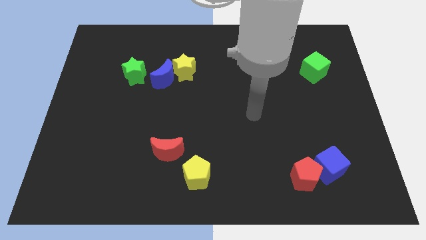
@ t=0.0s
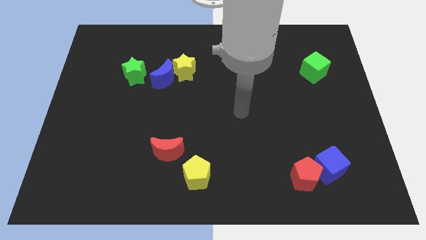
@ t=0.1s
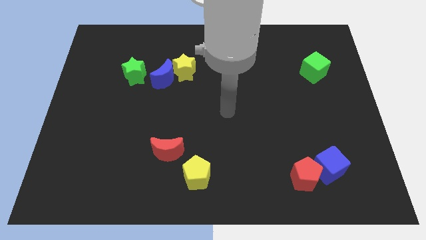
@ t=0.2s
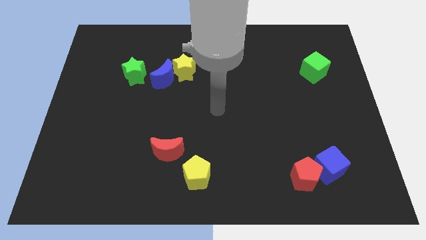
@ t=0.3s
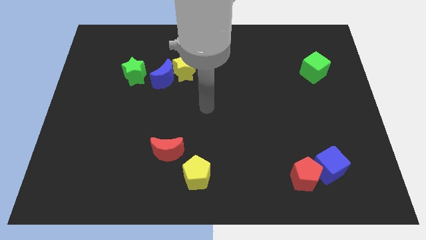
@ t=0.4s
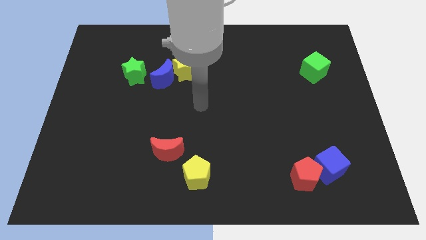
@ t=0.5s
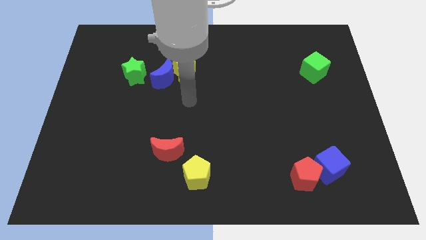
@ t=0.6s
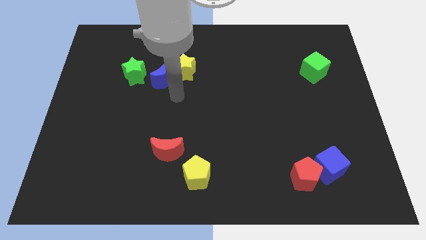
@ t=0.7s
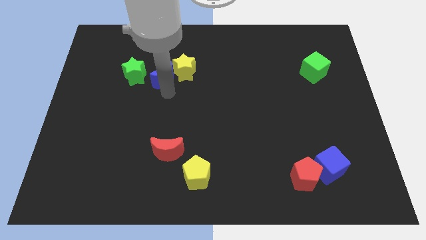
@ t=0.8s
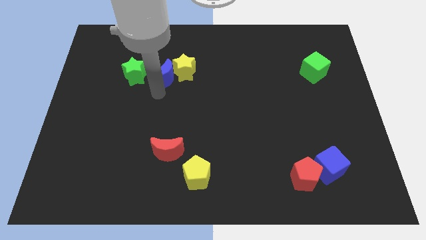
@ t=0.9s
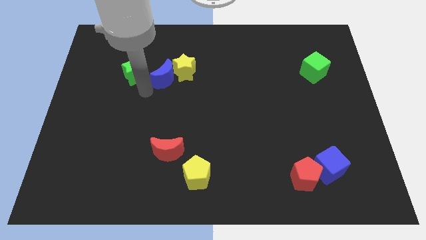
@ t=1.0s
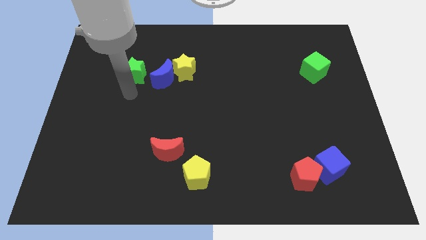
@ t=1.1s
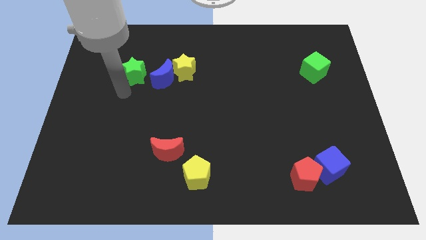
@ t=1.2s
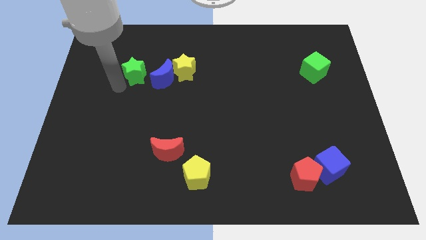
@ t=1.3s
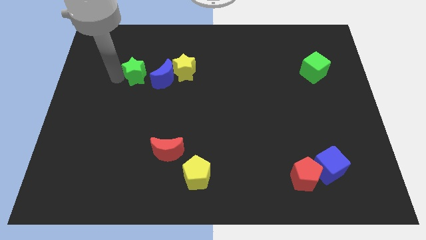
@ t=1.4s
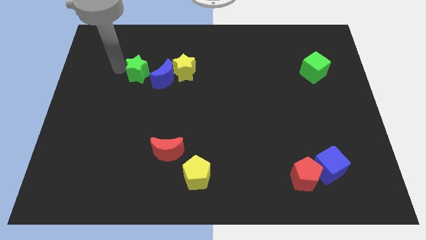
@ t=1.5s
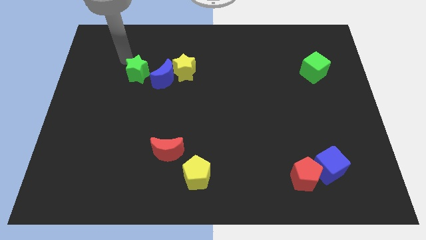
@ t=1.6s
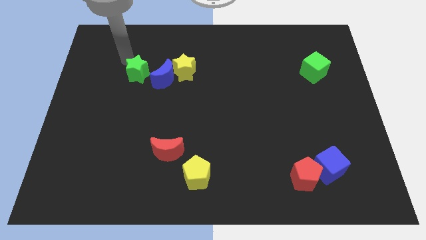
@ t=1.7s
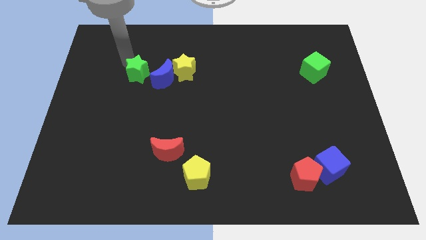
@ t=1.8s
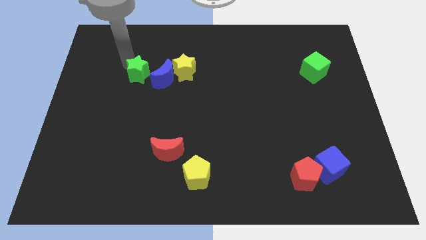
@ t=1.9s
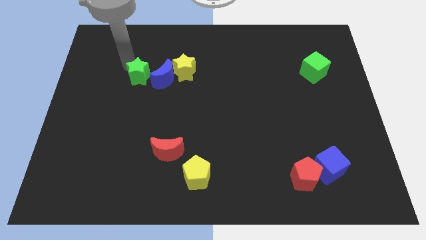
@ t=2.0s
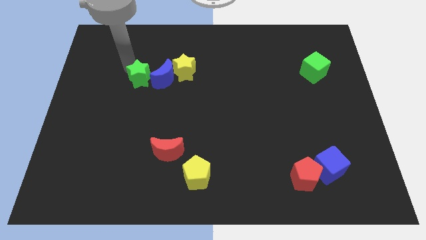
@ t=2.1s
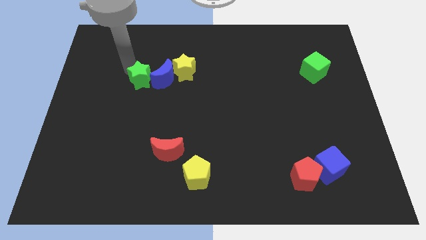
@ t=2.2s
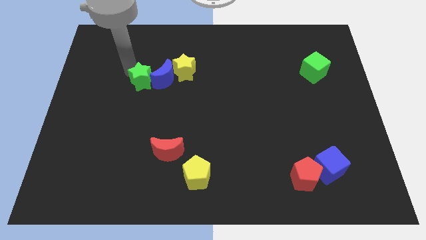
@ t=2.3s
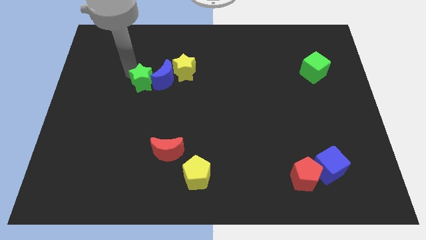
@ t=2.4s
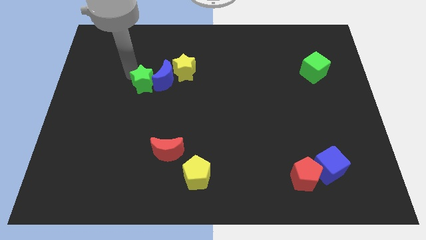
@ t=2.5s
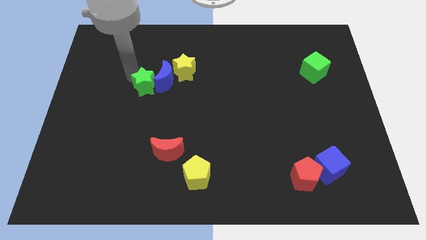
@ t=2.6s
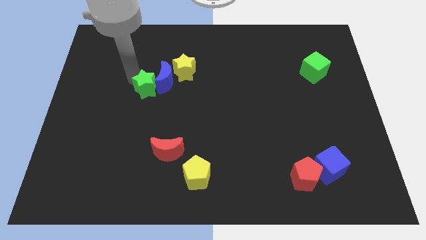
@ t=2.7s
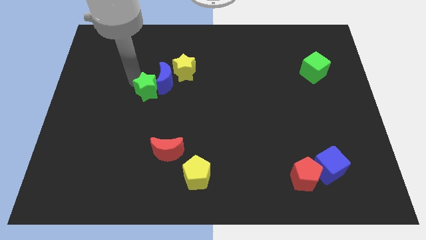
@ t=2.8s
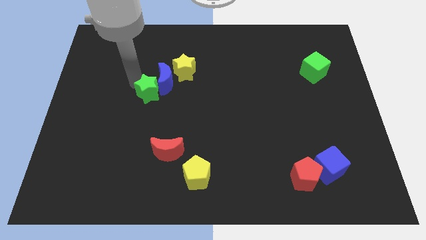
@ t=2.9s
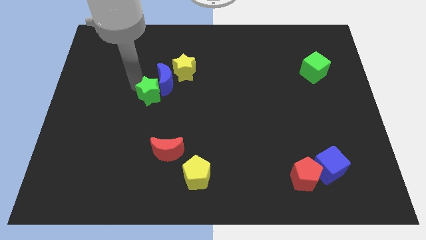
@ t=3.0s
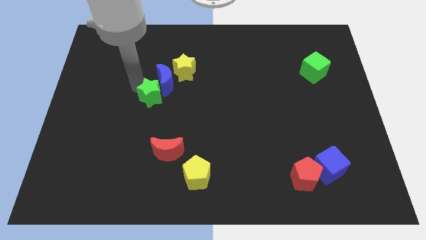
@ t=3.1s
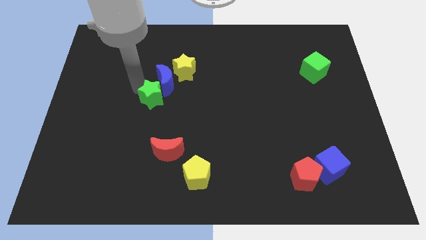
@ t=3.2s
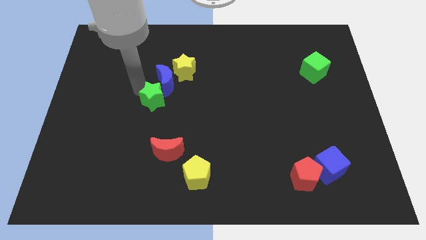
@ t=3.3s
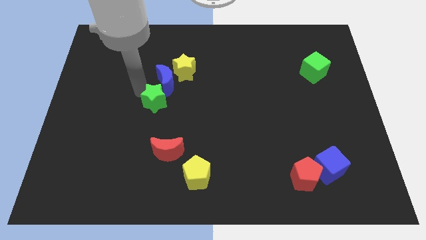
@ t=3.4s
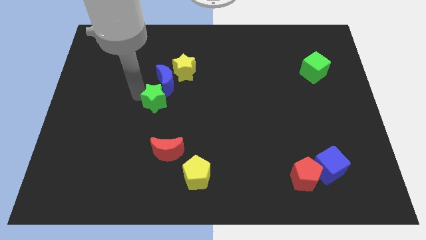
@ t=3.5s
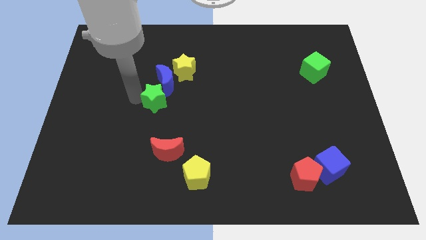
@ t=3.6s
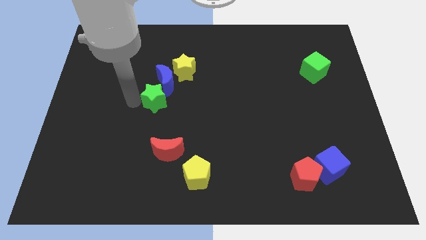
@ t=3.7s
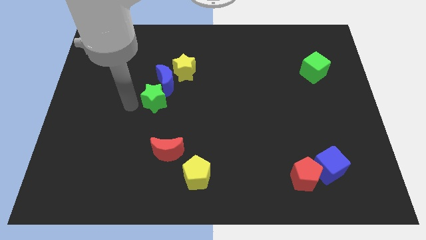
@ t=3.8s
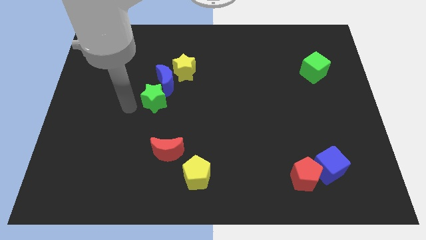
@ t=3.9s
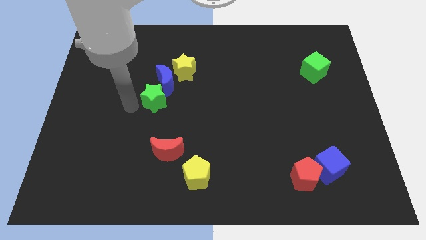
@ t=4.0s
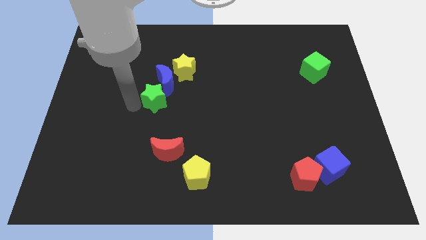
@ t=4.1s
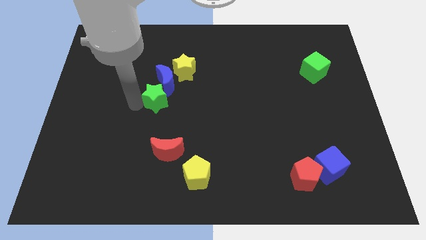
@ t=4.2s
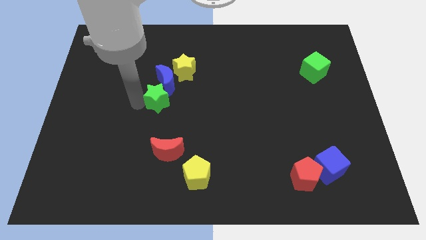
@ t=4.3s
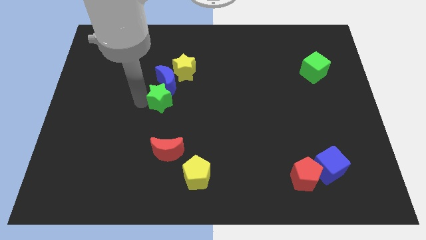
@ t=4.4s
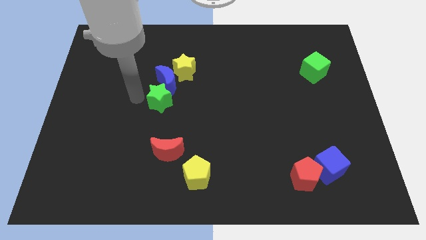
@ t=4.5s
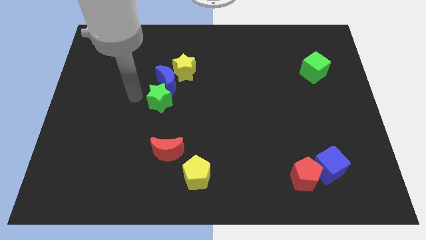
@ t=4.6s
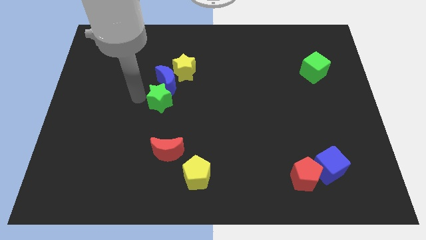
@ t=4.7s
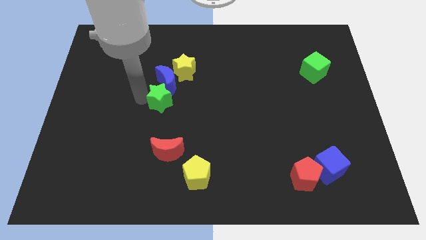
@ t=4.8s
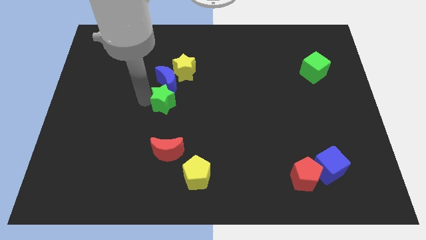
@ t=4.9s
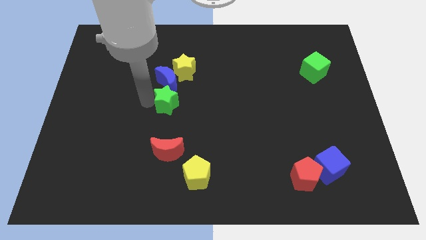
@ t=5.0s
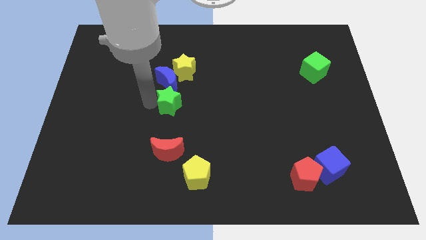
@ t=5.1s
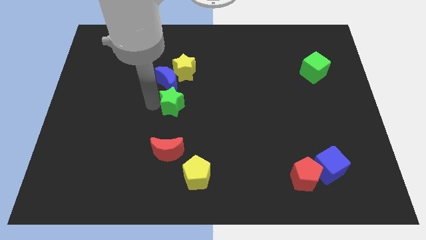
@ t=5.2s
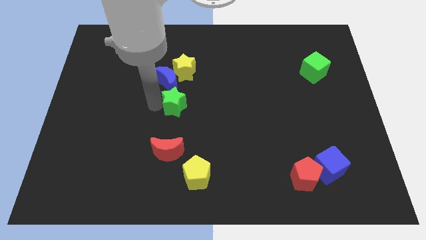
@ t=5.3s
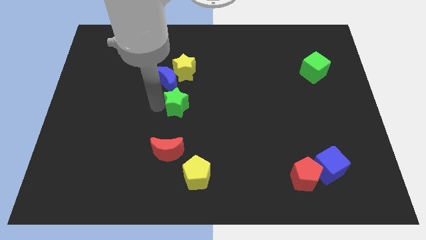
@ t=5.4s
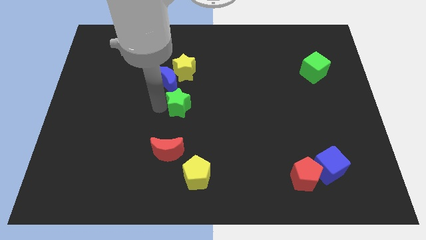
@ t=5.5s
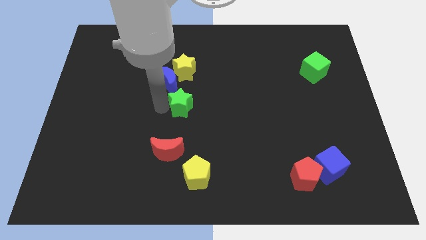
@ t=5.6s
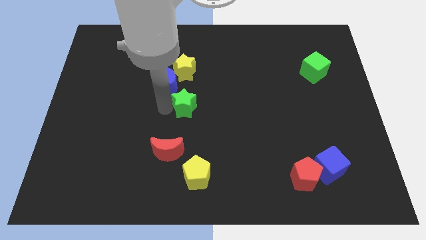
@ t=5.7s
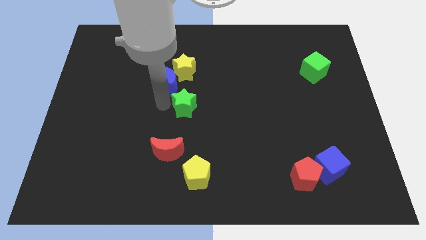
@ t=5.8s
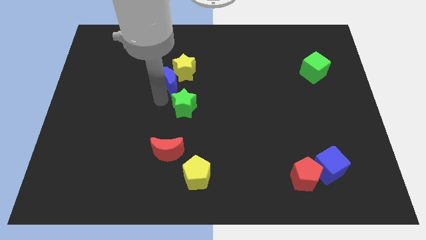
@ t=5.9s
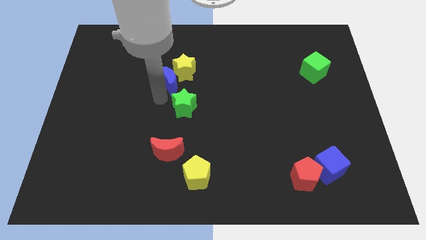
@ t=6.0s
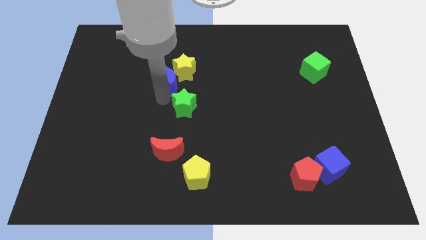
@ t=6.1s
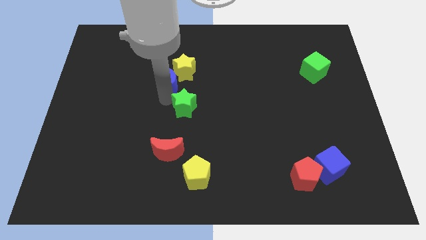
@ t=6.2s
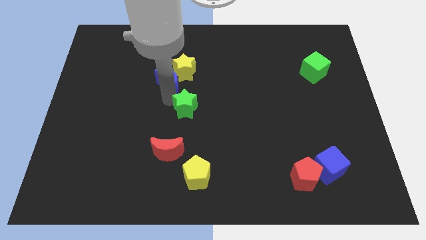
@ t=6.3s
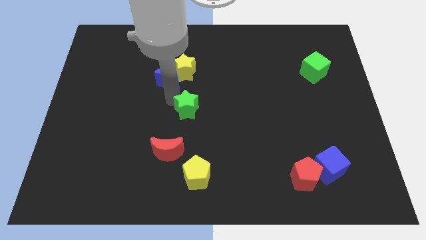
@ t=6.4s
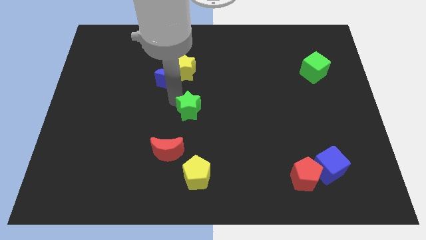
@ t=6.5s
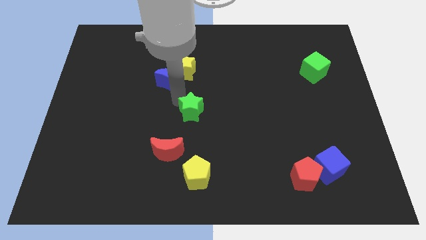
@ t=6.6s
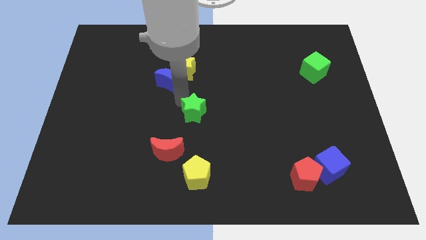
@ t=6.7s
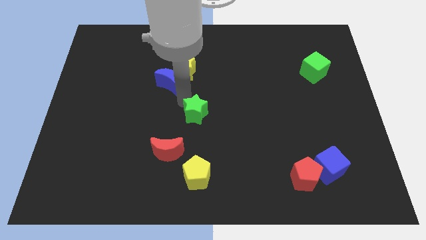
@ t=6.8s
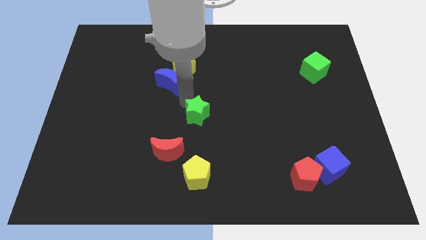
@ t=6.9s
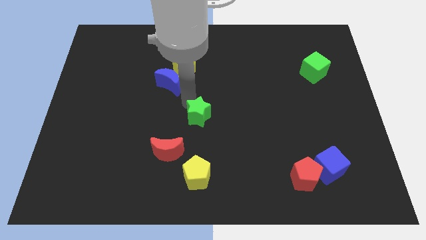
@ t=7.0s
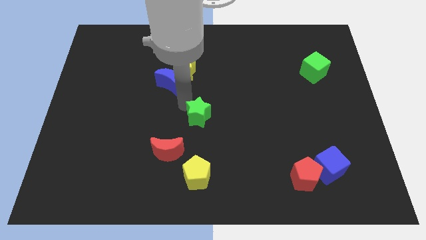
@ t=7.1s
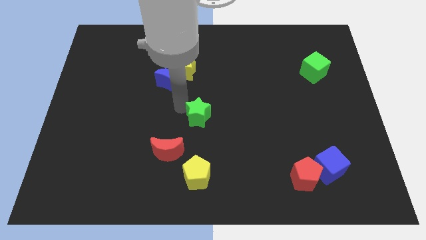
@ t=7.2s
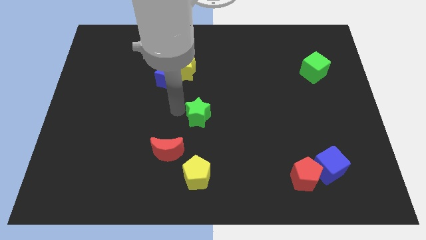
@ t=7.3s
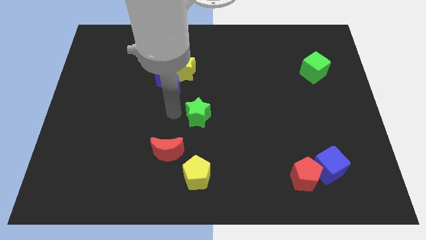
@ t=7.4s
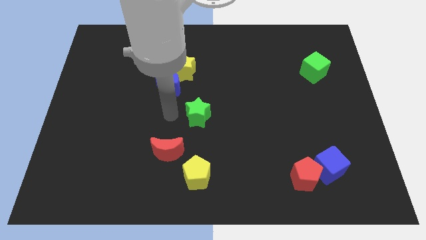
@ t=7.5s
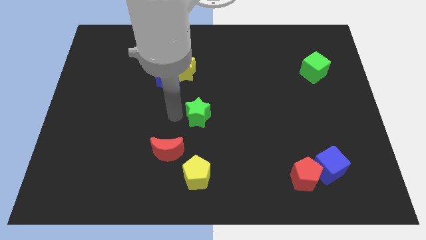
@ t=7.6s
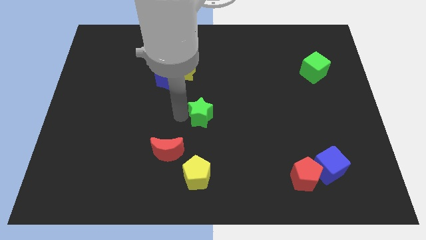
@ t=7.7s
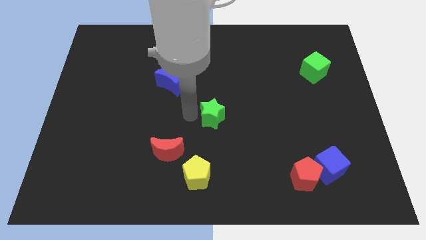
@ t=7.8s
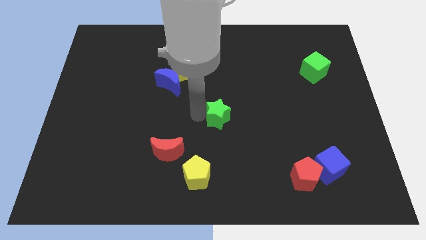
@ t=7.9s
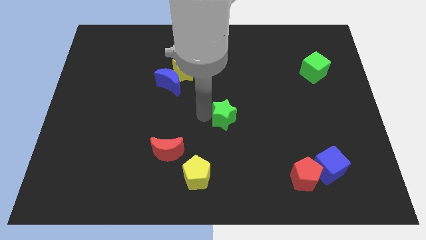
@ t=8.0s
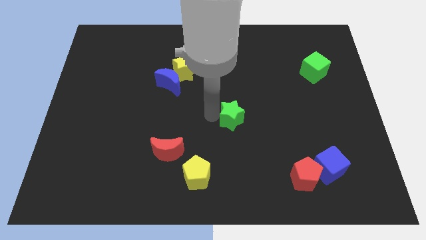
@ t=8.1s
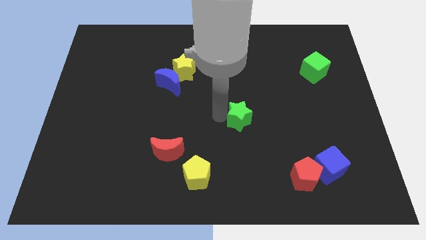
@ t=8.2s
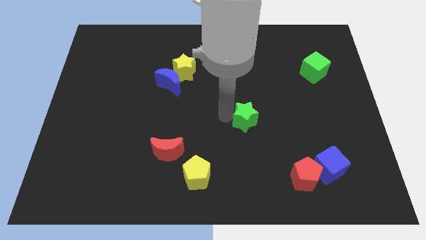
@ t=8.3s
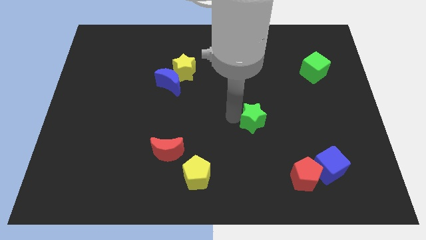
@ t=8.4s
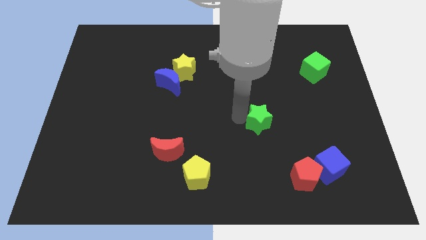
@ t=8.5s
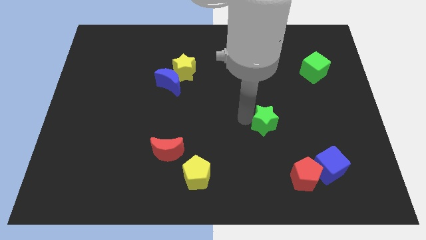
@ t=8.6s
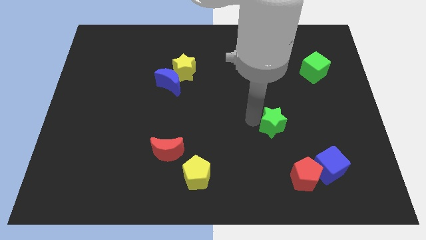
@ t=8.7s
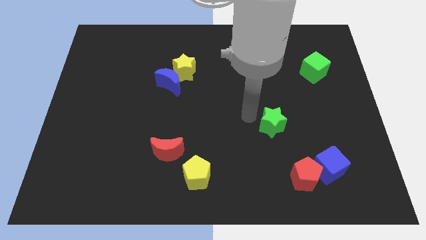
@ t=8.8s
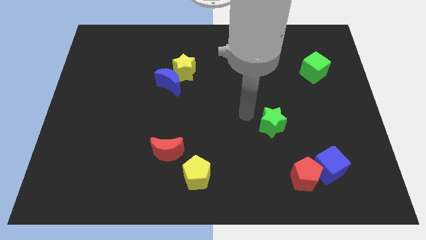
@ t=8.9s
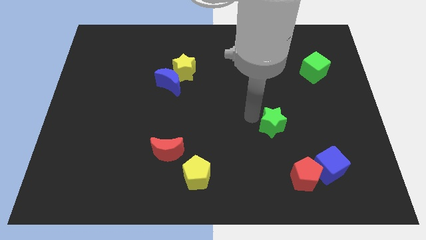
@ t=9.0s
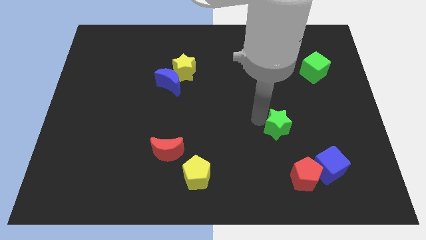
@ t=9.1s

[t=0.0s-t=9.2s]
push the green star to the top of the red pentagon
